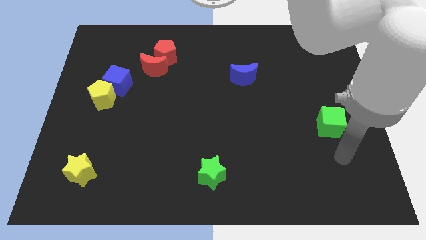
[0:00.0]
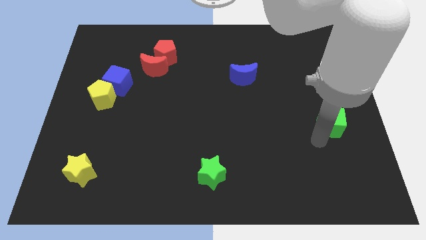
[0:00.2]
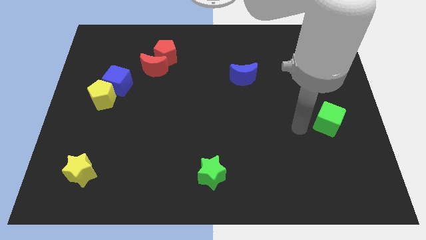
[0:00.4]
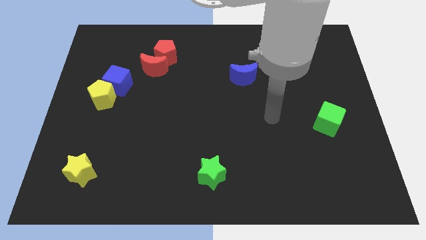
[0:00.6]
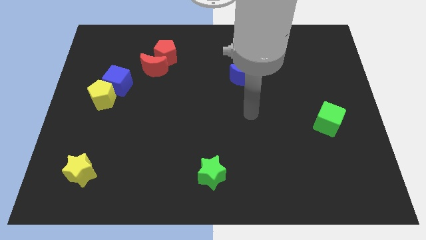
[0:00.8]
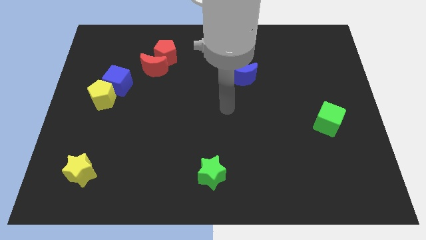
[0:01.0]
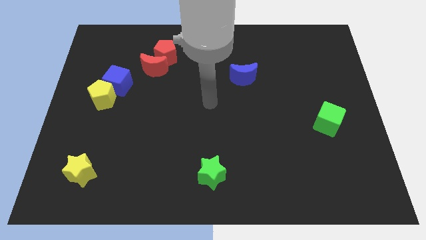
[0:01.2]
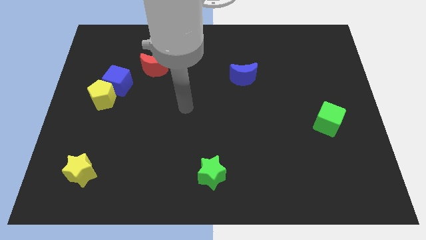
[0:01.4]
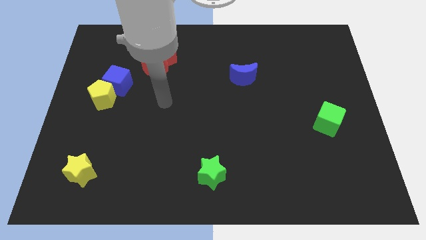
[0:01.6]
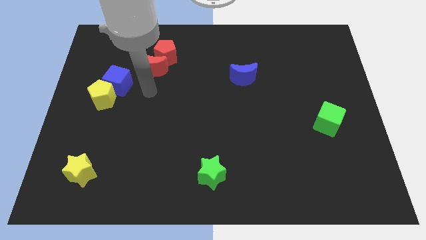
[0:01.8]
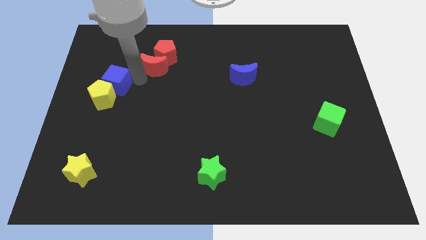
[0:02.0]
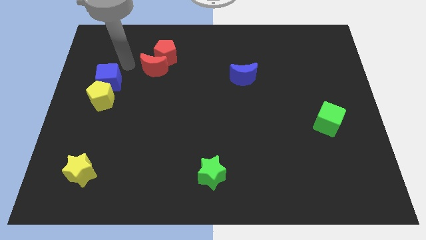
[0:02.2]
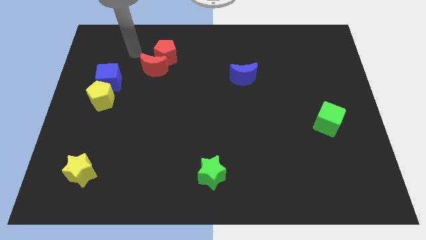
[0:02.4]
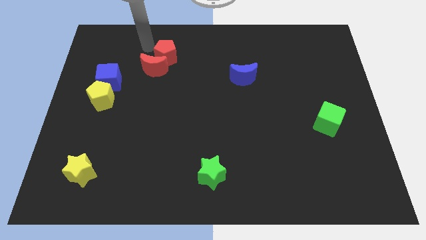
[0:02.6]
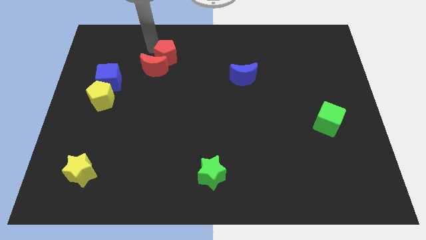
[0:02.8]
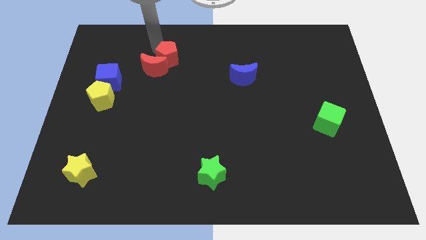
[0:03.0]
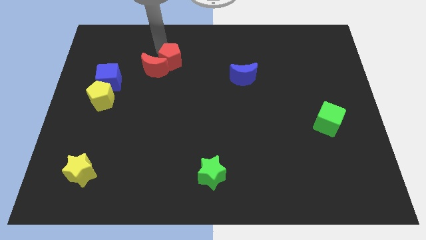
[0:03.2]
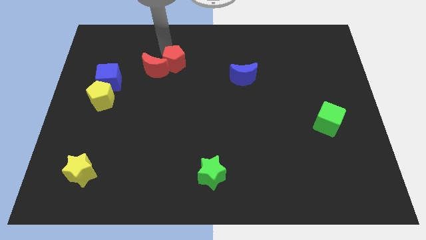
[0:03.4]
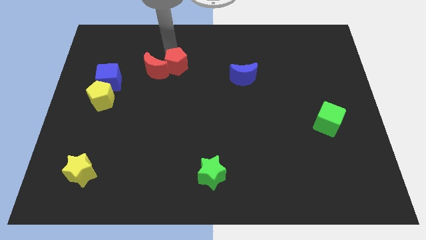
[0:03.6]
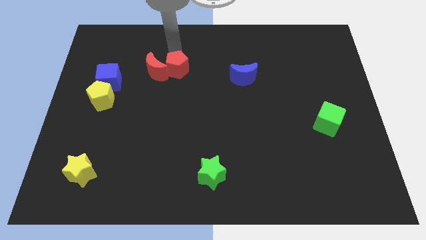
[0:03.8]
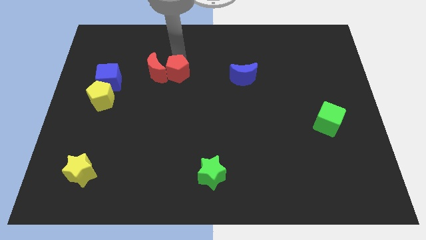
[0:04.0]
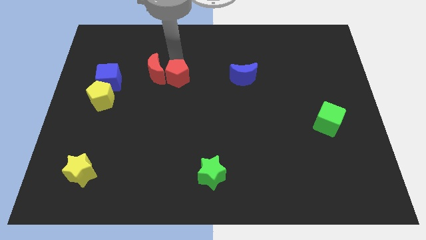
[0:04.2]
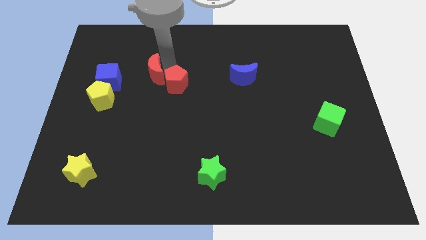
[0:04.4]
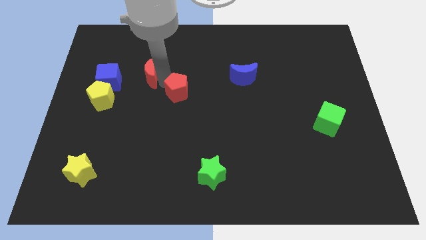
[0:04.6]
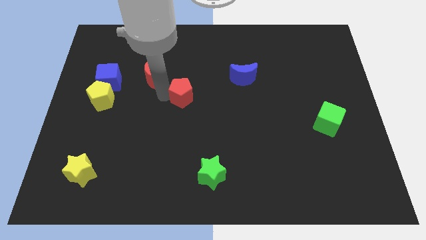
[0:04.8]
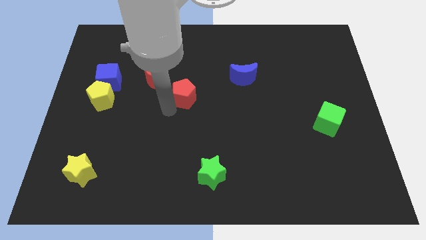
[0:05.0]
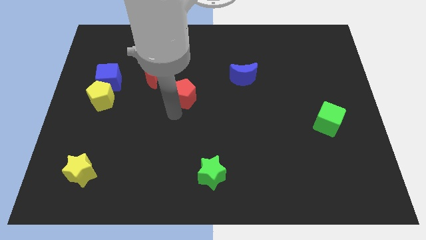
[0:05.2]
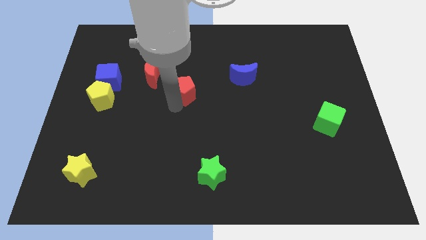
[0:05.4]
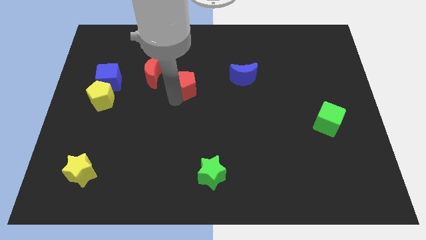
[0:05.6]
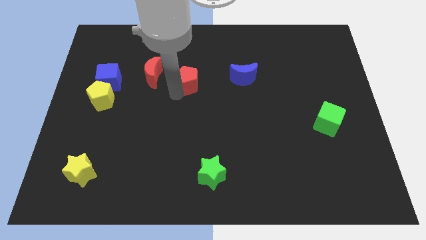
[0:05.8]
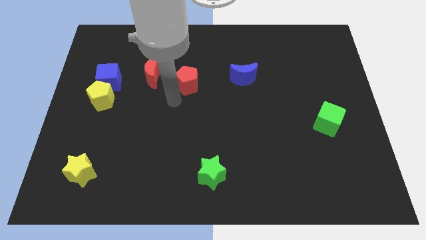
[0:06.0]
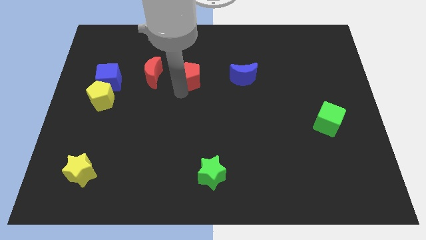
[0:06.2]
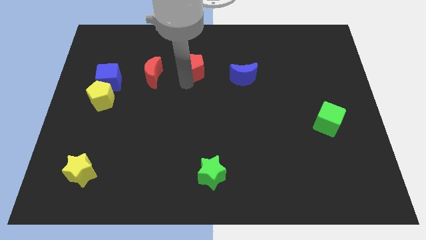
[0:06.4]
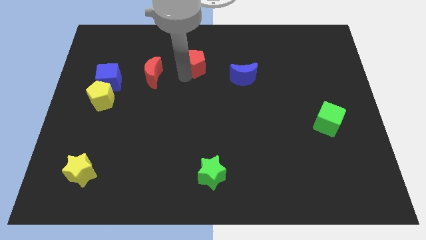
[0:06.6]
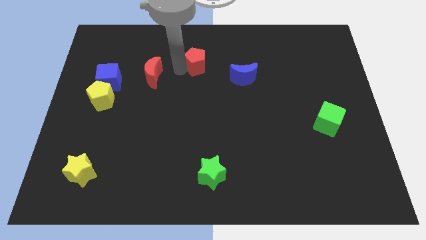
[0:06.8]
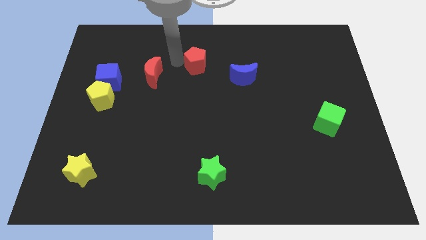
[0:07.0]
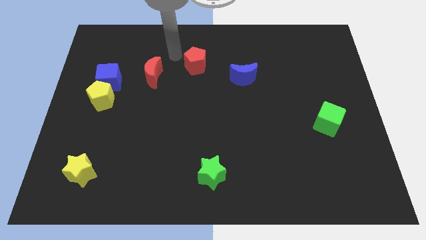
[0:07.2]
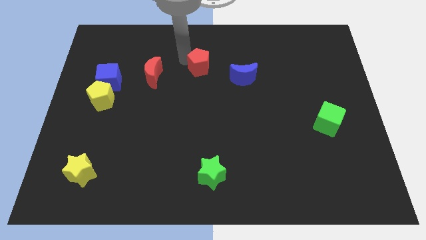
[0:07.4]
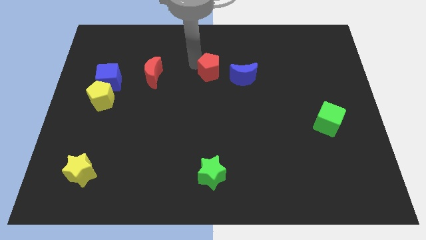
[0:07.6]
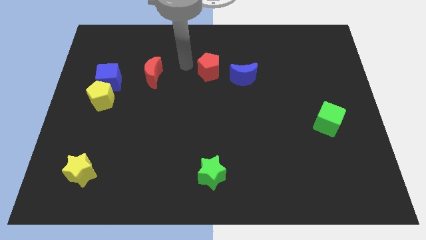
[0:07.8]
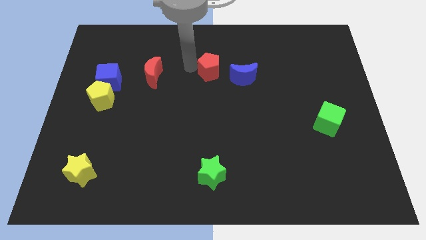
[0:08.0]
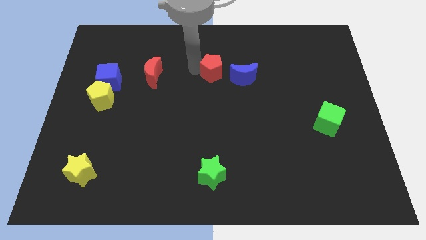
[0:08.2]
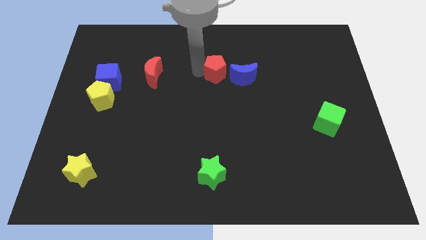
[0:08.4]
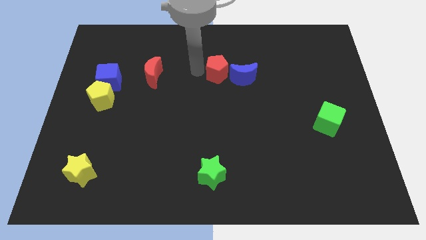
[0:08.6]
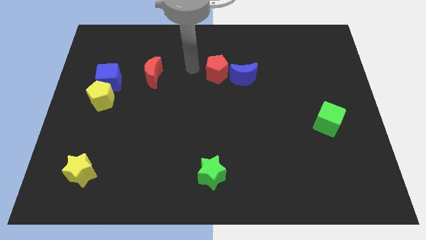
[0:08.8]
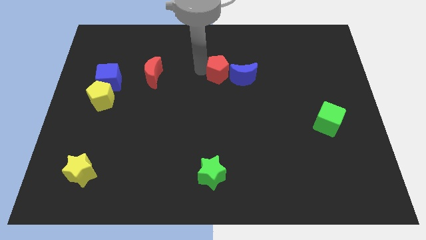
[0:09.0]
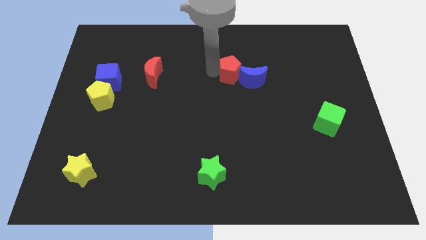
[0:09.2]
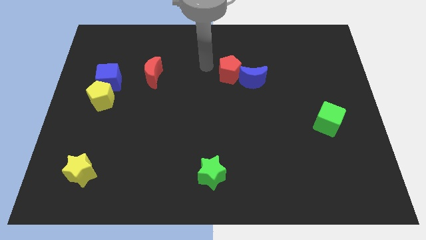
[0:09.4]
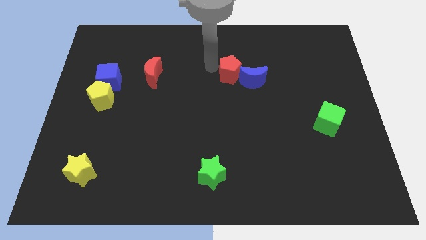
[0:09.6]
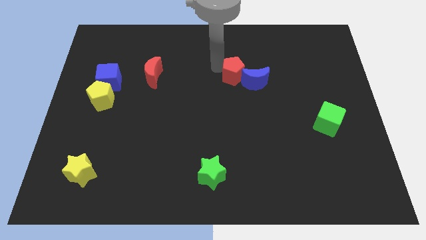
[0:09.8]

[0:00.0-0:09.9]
push the red pentagon next to the blue moon

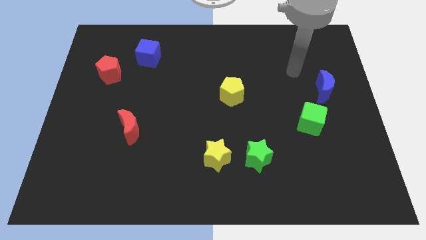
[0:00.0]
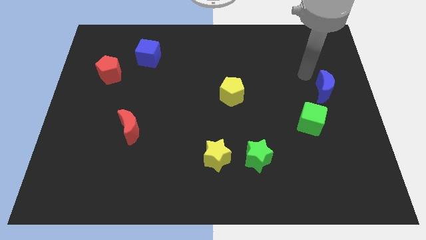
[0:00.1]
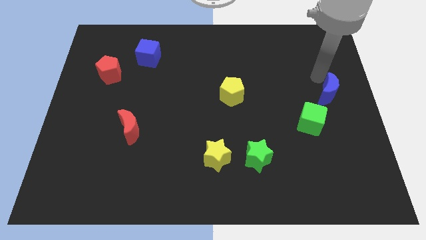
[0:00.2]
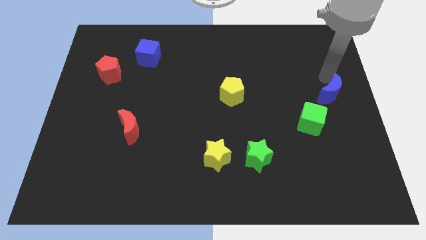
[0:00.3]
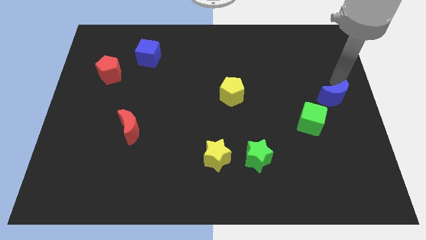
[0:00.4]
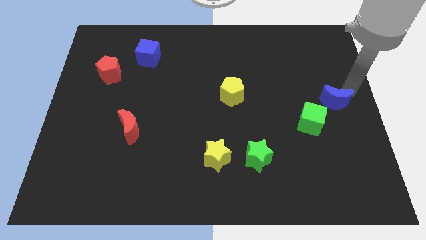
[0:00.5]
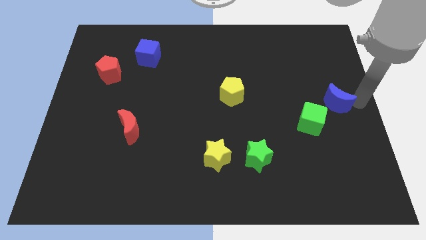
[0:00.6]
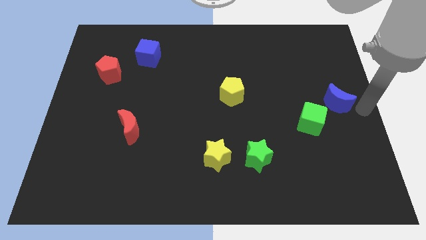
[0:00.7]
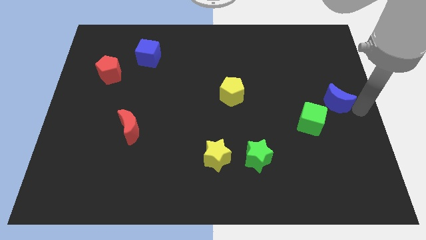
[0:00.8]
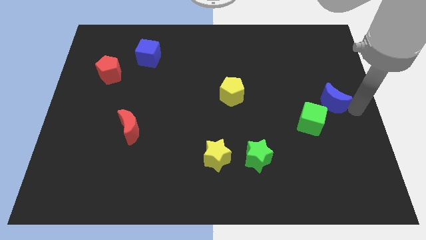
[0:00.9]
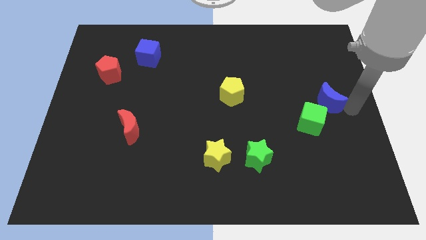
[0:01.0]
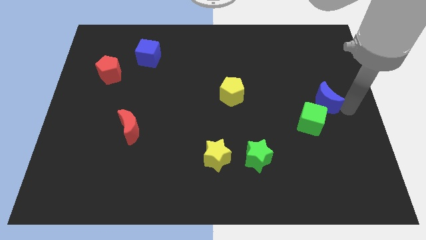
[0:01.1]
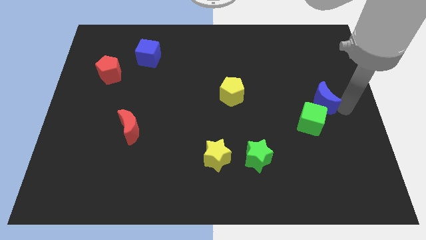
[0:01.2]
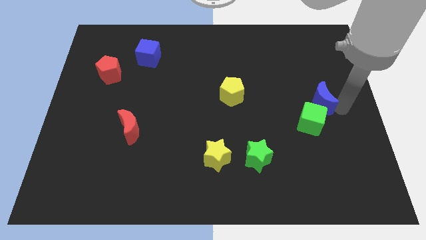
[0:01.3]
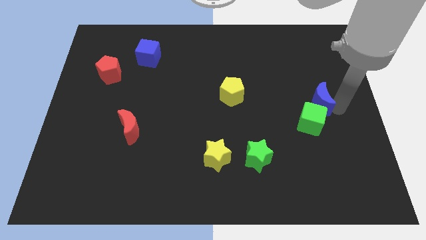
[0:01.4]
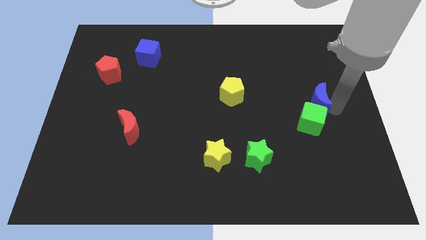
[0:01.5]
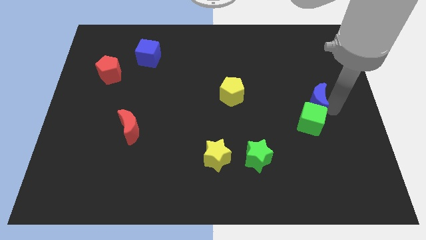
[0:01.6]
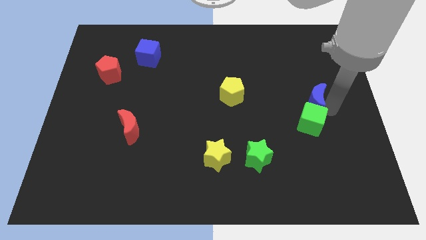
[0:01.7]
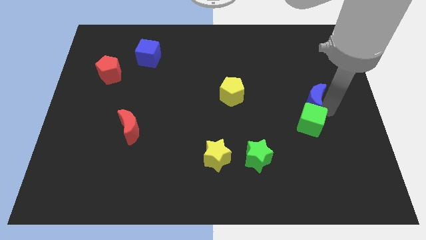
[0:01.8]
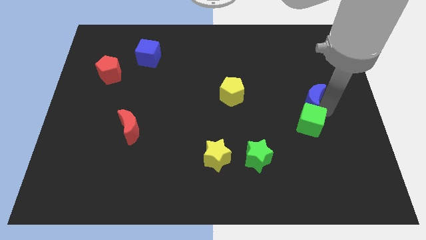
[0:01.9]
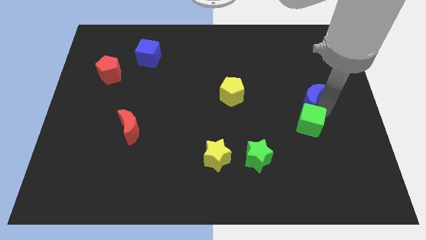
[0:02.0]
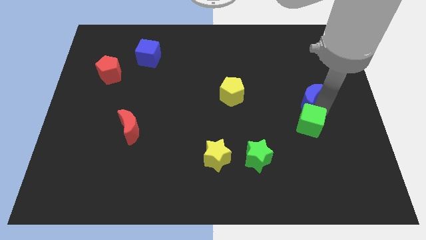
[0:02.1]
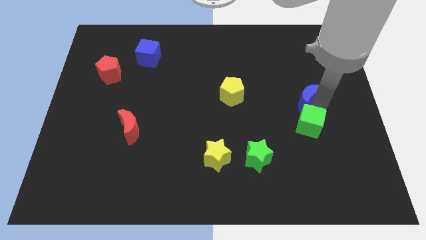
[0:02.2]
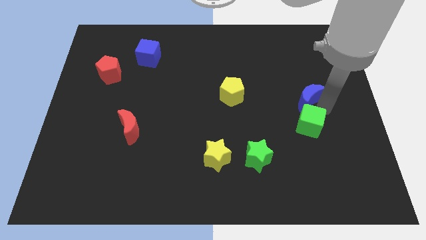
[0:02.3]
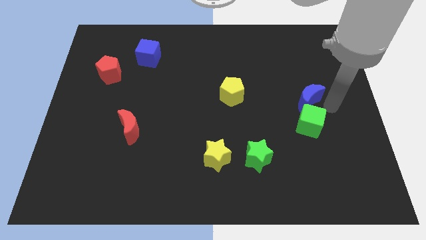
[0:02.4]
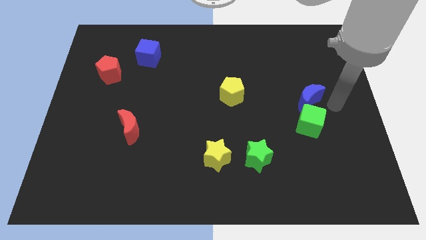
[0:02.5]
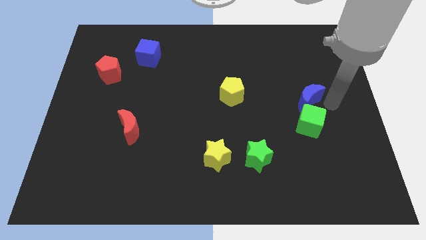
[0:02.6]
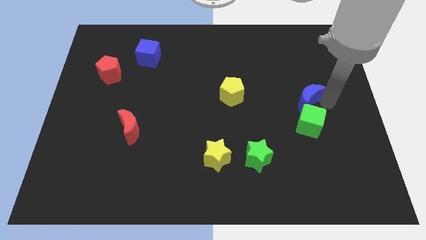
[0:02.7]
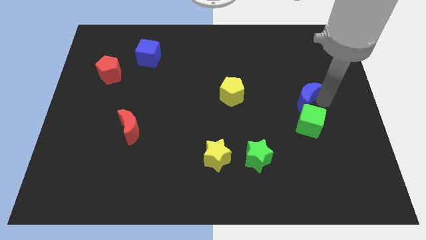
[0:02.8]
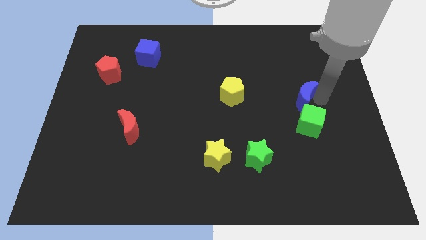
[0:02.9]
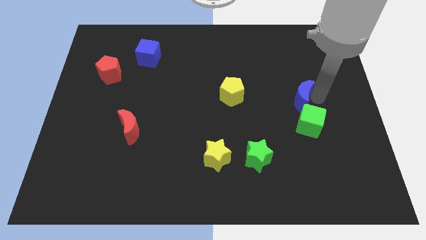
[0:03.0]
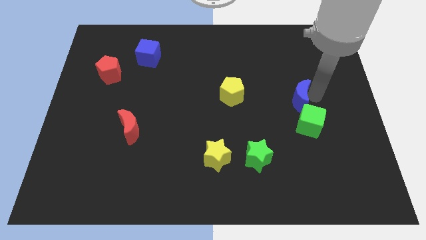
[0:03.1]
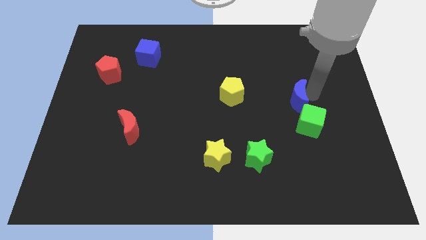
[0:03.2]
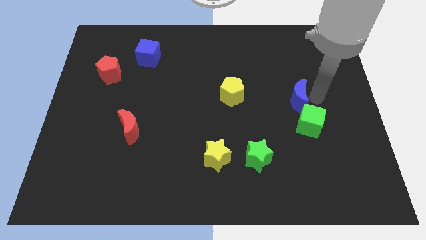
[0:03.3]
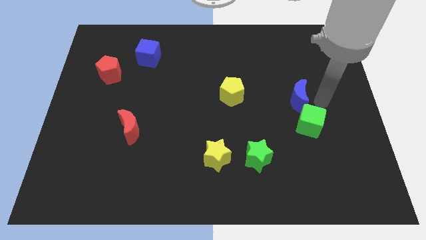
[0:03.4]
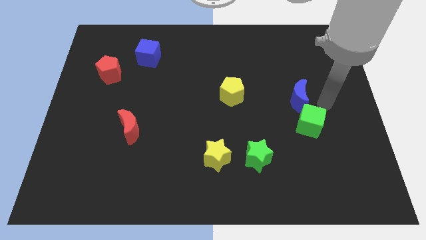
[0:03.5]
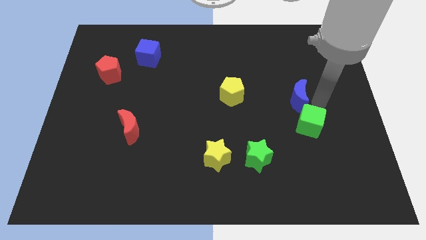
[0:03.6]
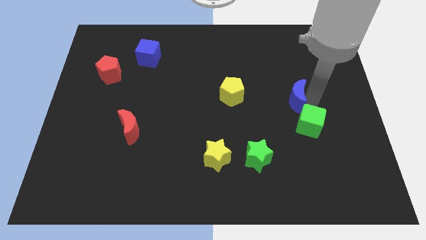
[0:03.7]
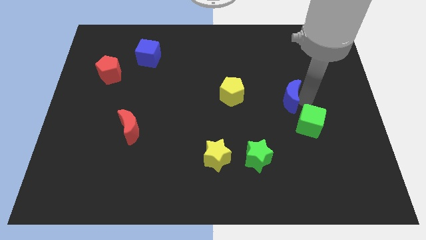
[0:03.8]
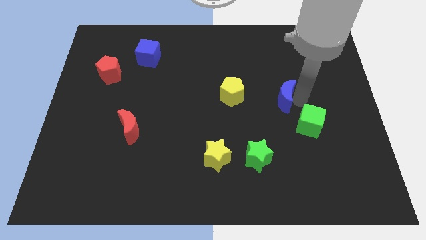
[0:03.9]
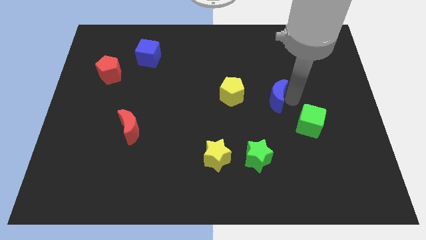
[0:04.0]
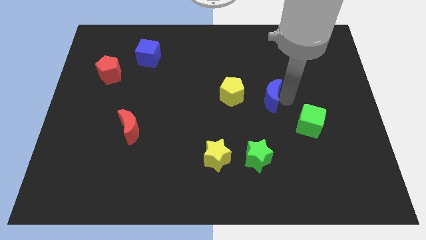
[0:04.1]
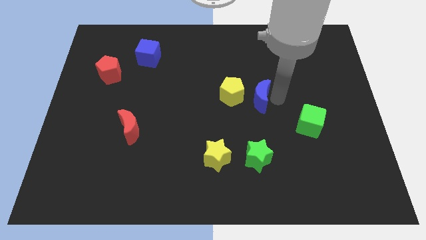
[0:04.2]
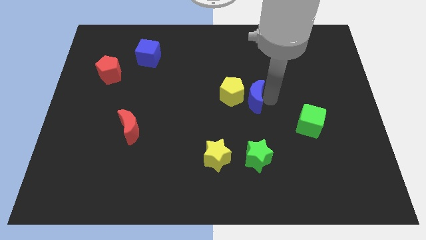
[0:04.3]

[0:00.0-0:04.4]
move the blue moon close to the yellow pentagon
